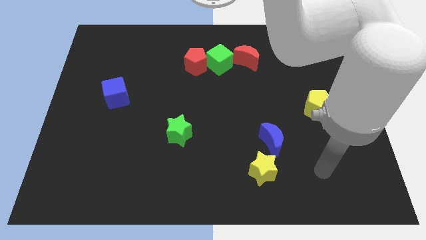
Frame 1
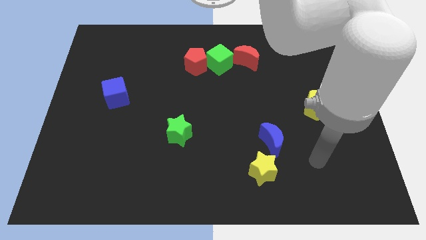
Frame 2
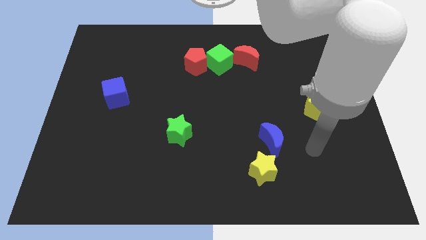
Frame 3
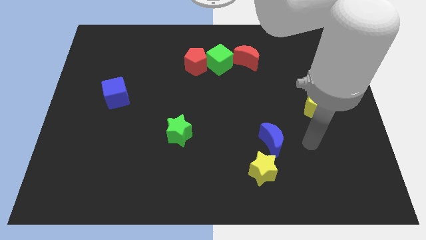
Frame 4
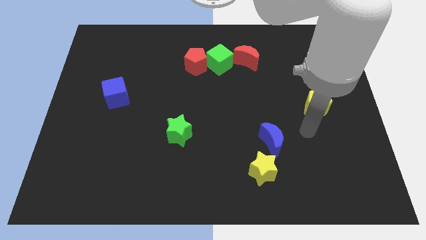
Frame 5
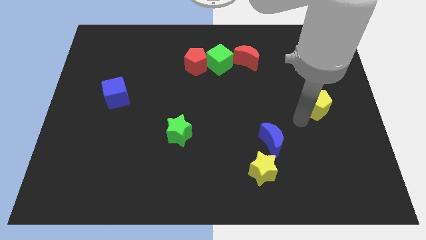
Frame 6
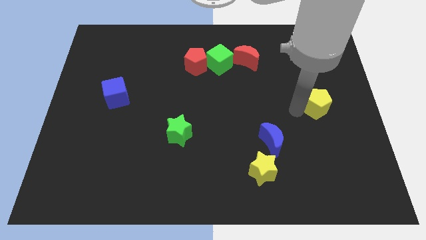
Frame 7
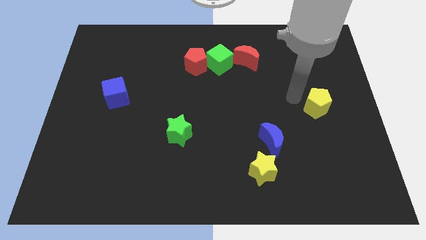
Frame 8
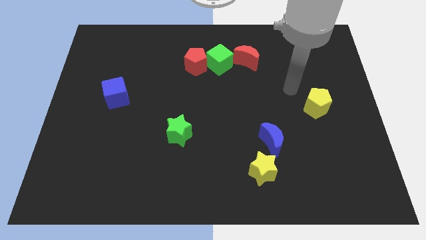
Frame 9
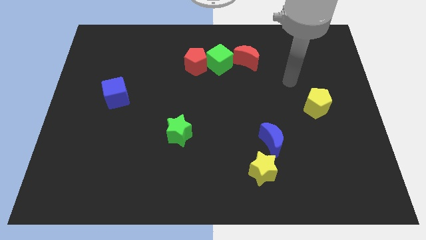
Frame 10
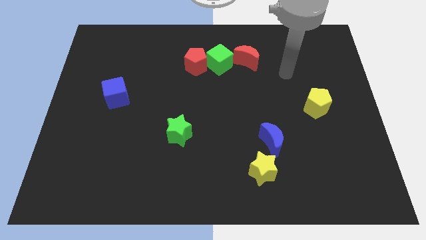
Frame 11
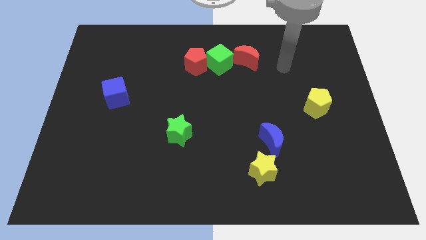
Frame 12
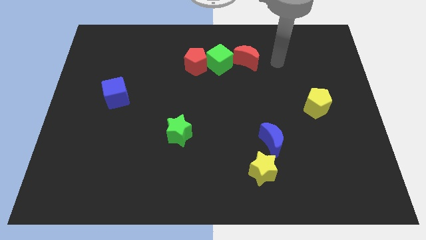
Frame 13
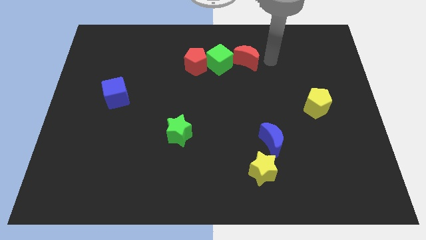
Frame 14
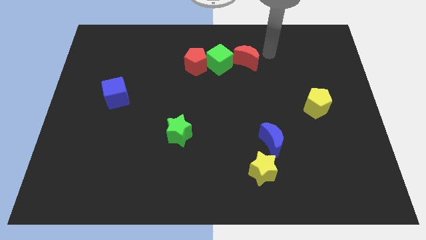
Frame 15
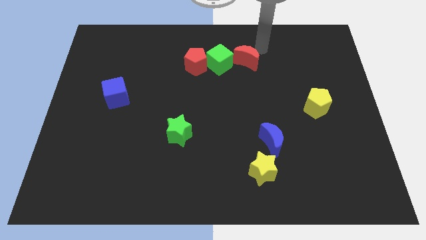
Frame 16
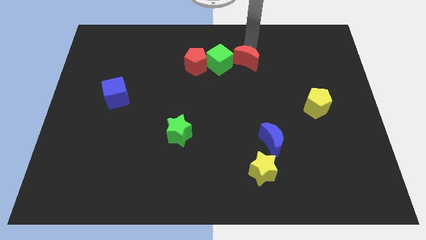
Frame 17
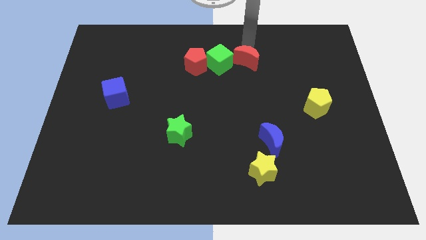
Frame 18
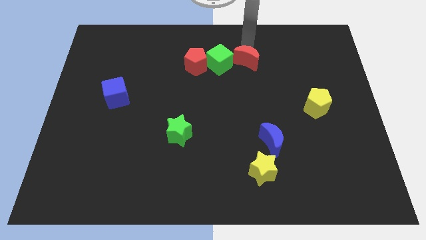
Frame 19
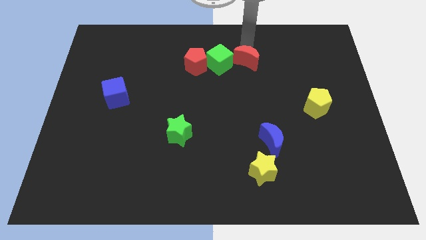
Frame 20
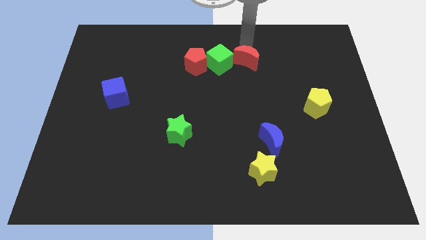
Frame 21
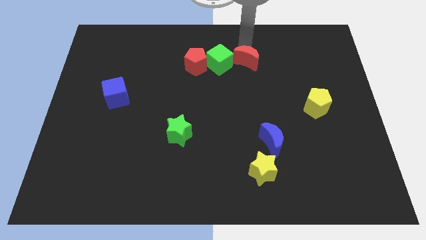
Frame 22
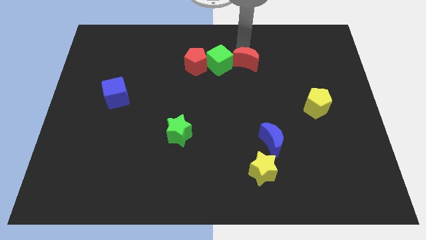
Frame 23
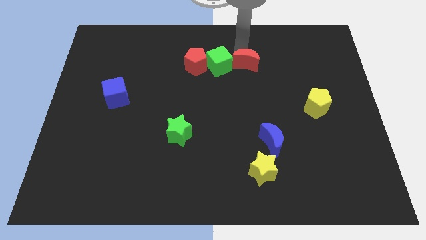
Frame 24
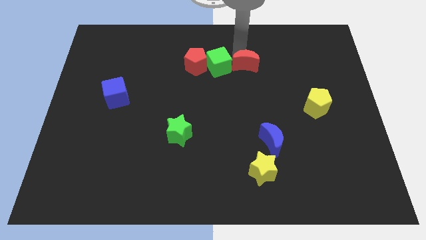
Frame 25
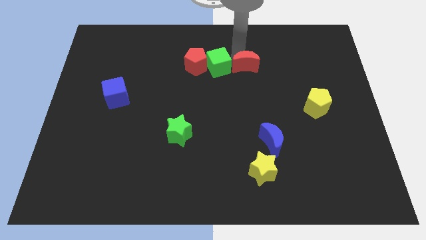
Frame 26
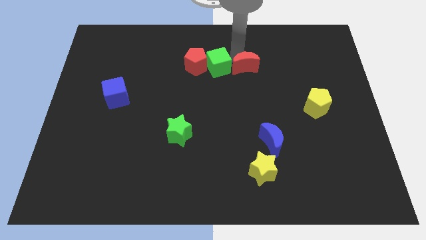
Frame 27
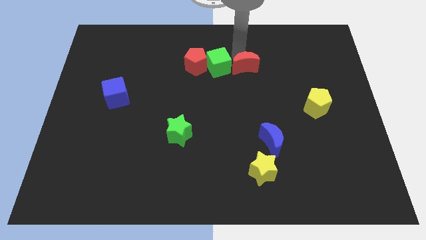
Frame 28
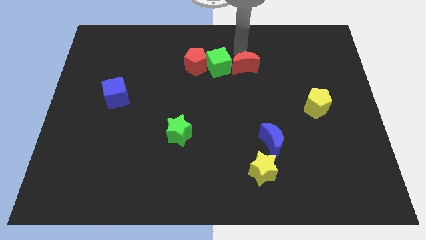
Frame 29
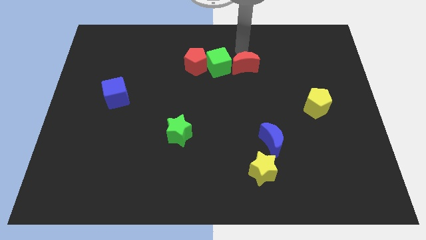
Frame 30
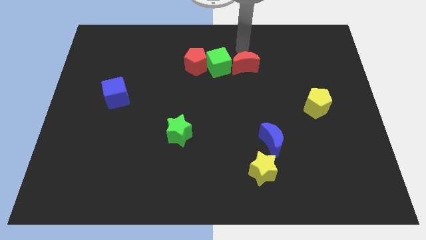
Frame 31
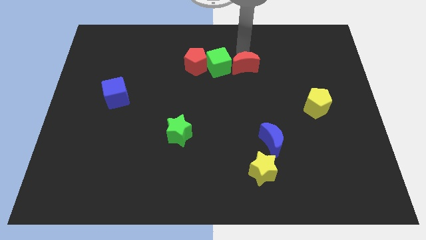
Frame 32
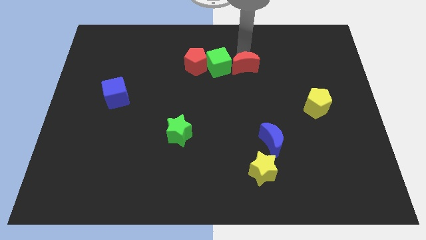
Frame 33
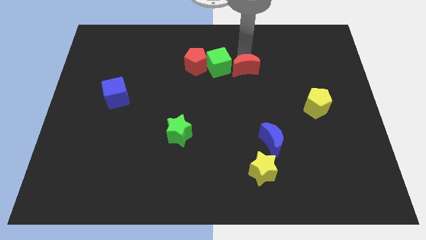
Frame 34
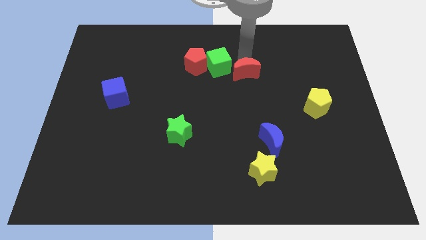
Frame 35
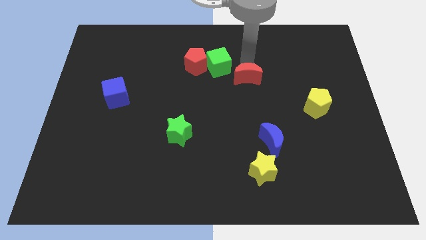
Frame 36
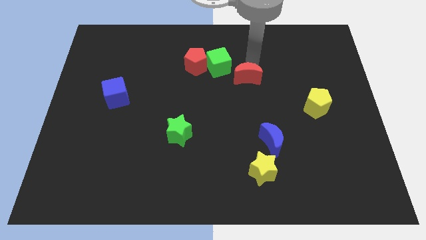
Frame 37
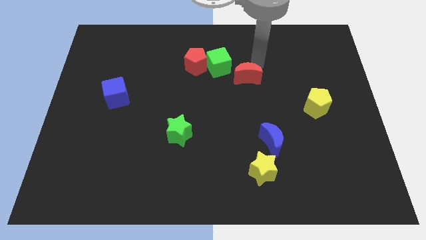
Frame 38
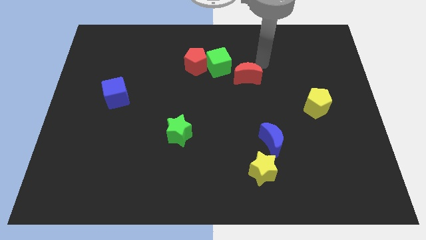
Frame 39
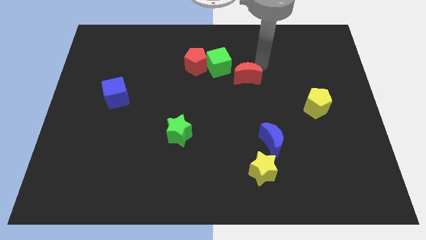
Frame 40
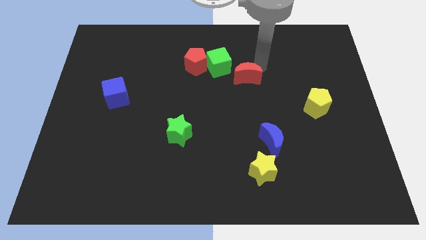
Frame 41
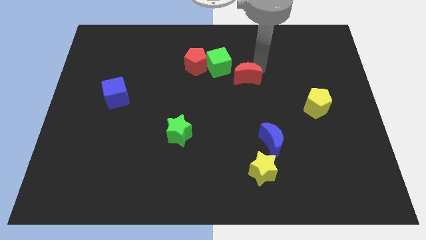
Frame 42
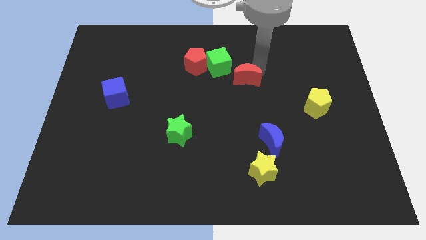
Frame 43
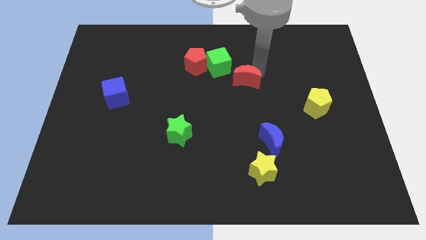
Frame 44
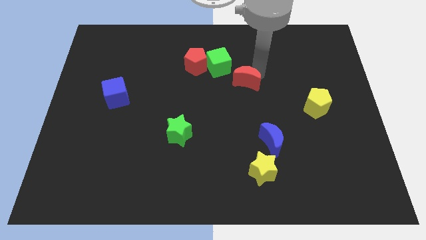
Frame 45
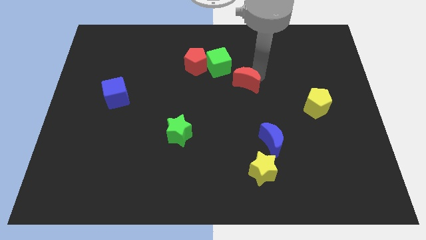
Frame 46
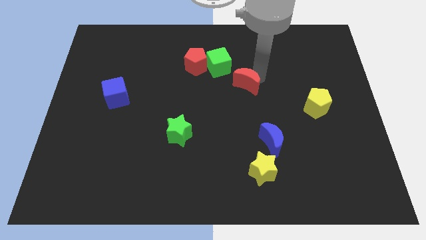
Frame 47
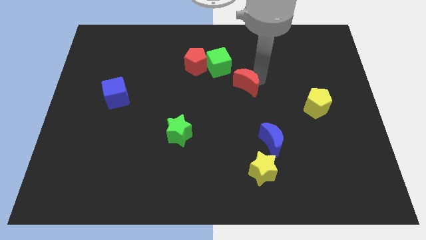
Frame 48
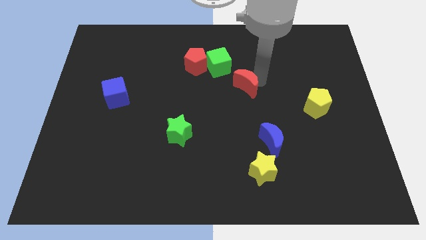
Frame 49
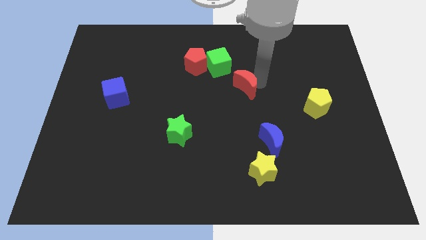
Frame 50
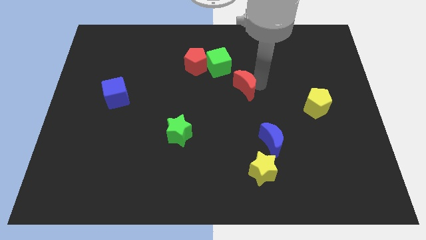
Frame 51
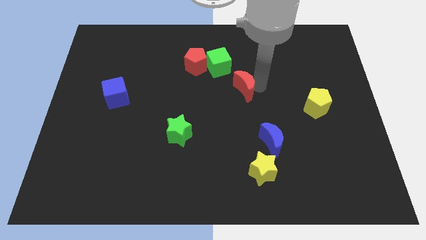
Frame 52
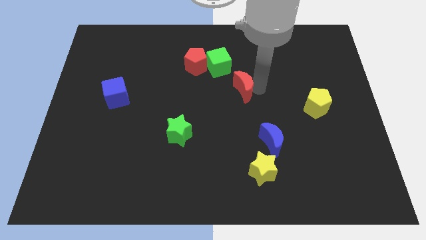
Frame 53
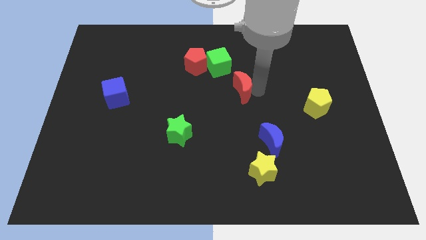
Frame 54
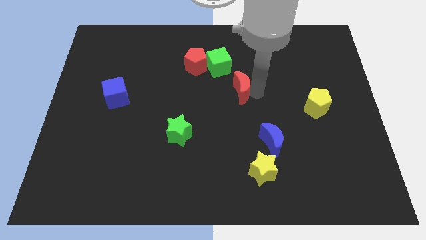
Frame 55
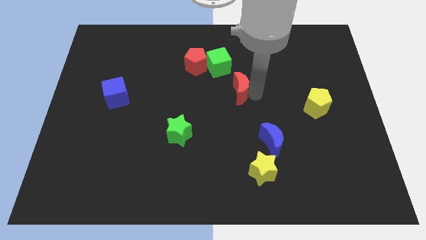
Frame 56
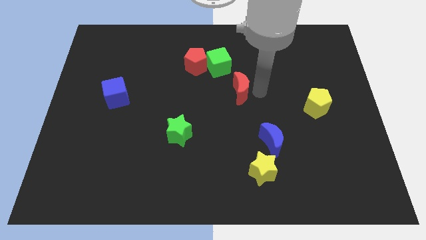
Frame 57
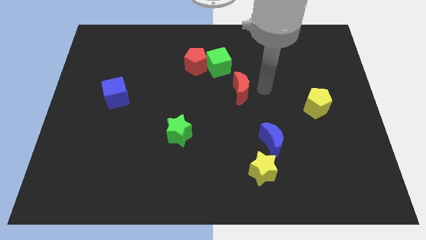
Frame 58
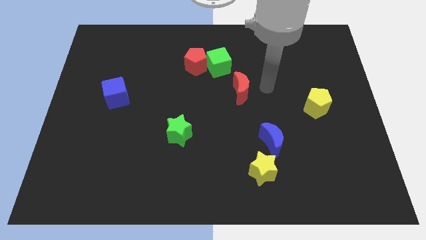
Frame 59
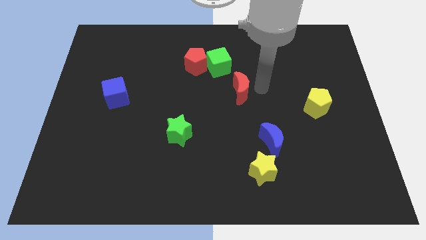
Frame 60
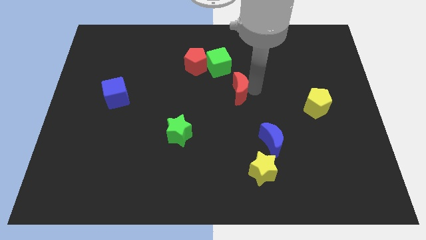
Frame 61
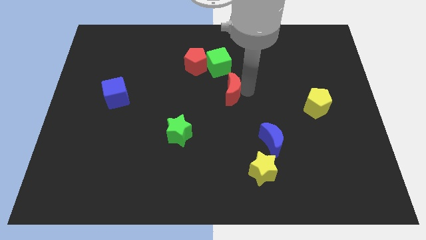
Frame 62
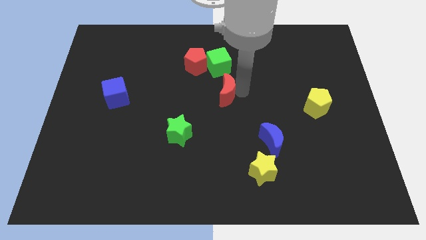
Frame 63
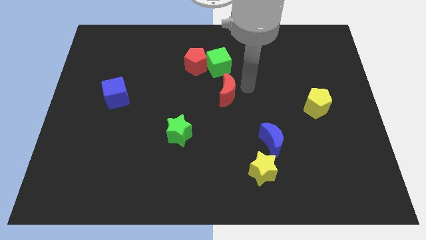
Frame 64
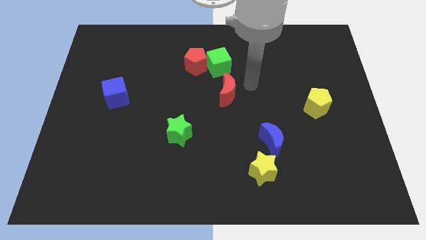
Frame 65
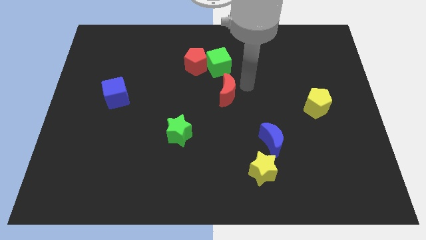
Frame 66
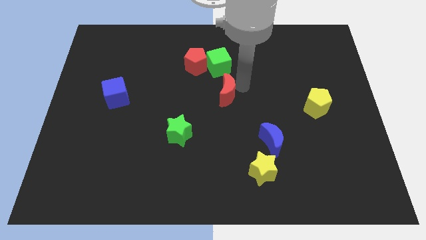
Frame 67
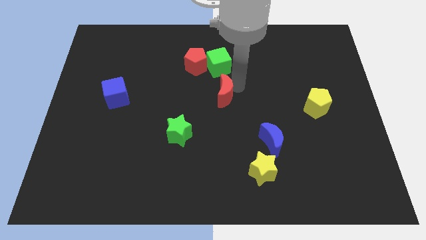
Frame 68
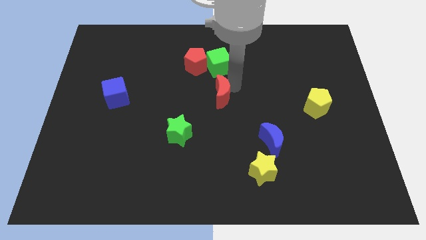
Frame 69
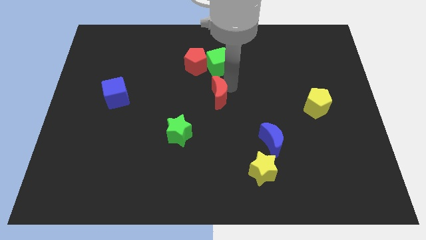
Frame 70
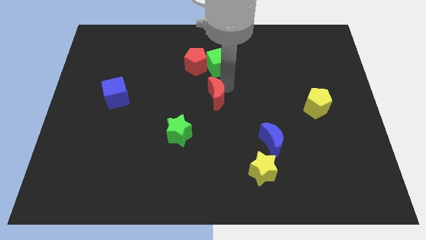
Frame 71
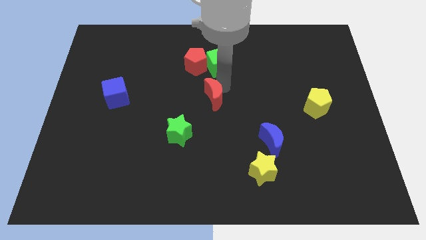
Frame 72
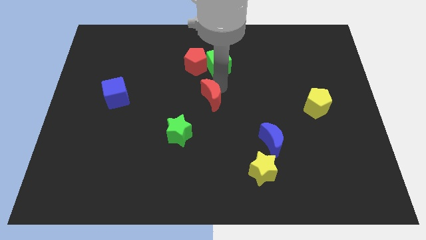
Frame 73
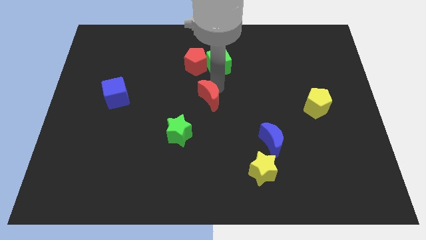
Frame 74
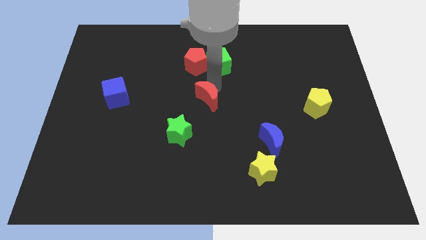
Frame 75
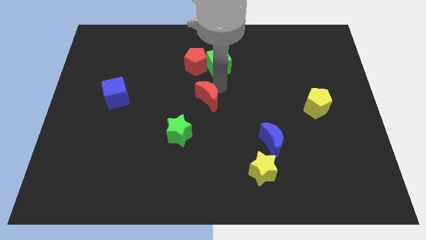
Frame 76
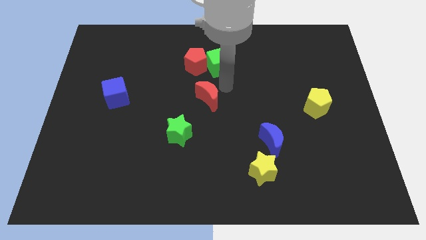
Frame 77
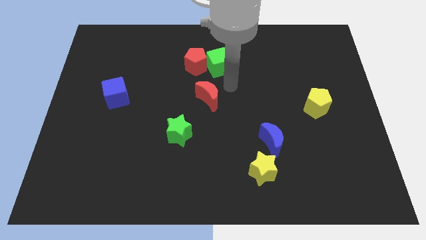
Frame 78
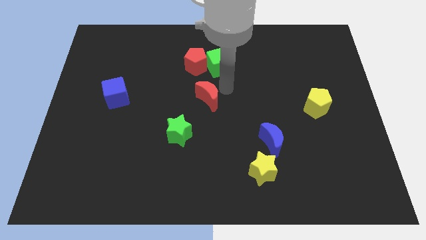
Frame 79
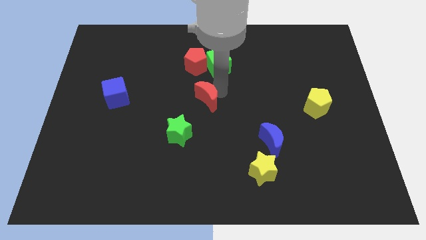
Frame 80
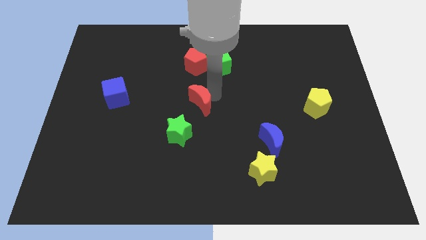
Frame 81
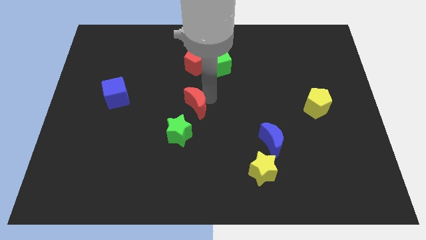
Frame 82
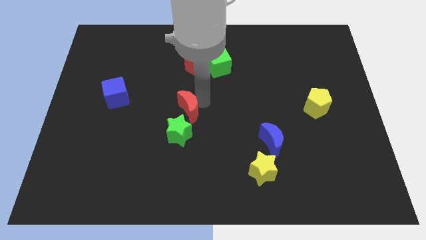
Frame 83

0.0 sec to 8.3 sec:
push the red moon diagonally down and to the left

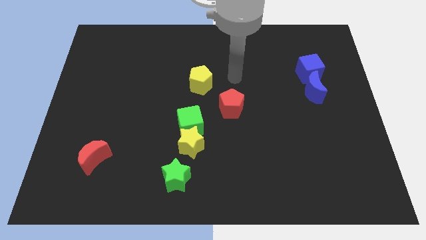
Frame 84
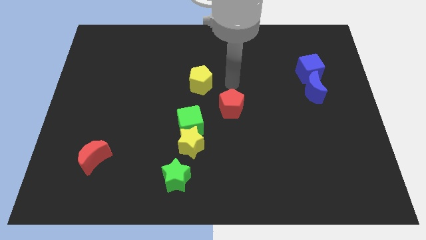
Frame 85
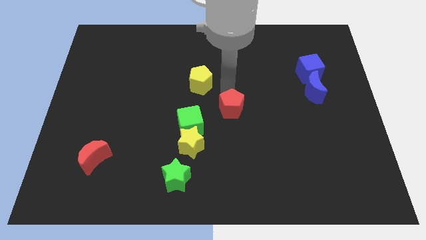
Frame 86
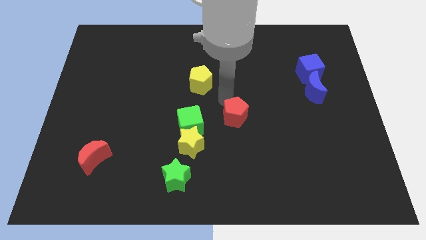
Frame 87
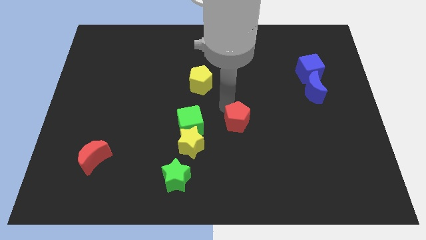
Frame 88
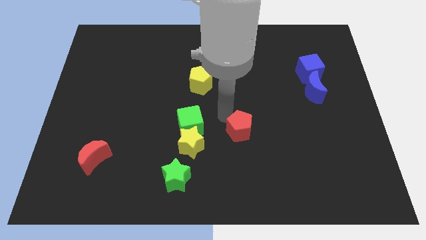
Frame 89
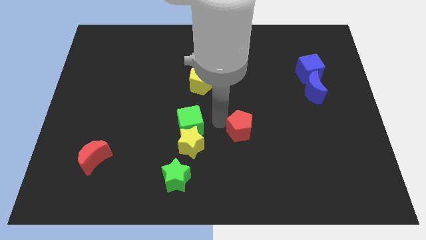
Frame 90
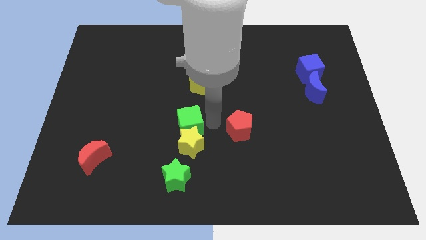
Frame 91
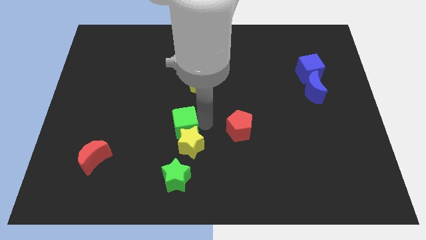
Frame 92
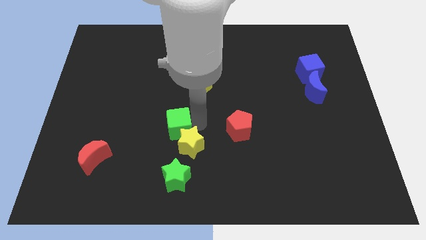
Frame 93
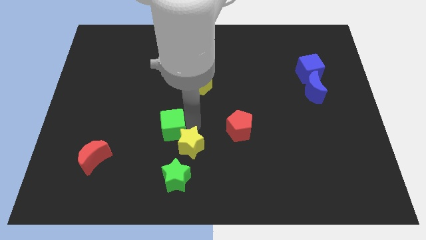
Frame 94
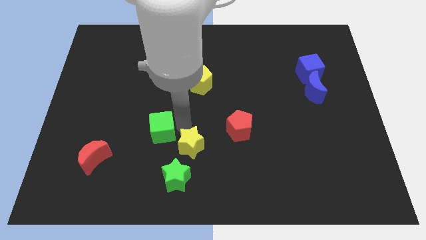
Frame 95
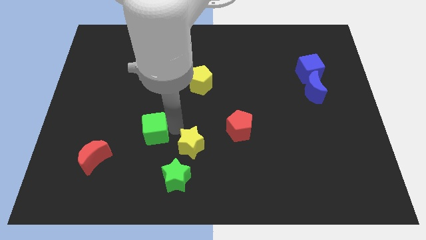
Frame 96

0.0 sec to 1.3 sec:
slightly move the green cube to the left
